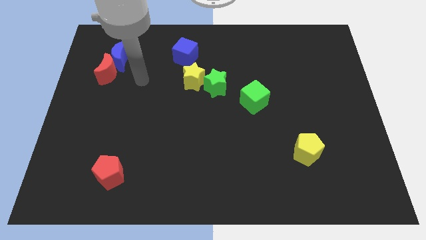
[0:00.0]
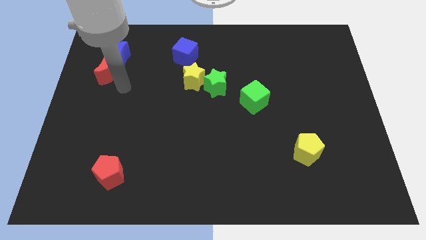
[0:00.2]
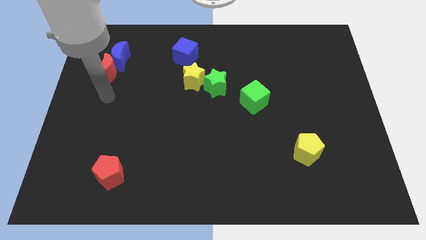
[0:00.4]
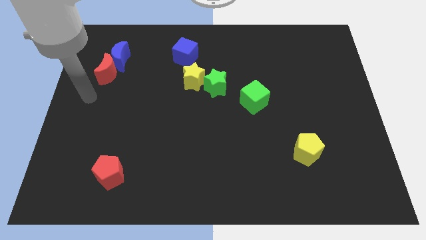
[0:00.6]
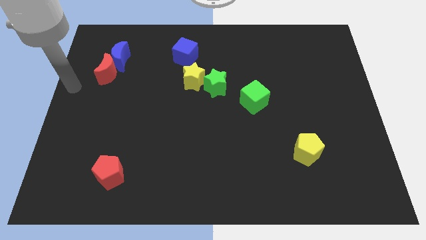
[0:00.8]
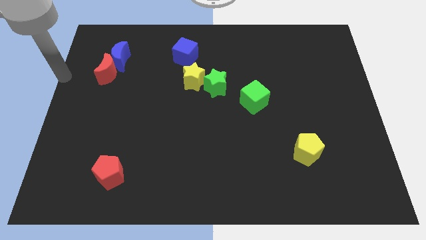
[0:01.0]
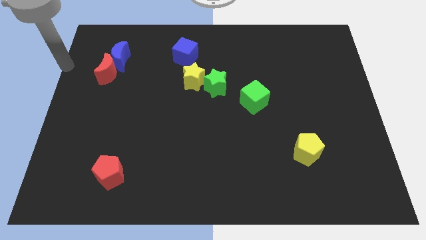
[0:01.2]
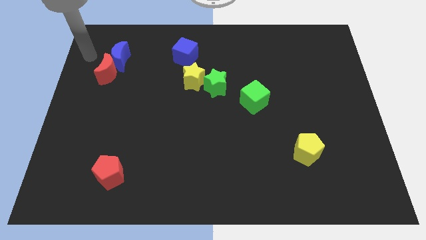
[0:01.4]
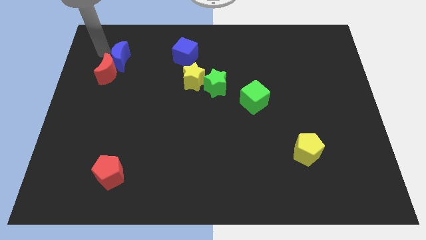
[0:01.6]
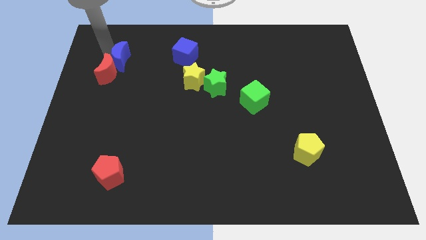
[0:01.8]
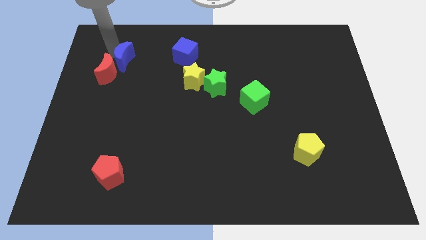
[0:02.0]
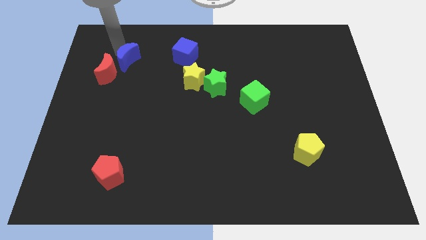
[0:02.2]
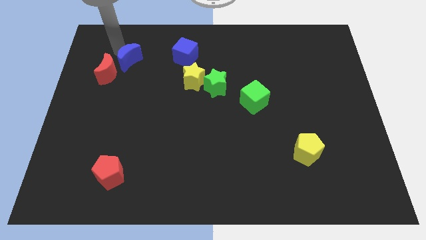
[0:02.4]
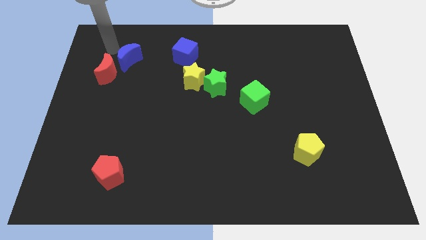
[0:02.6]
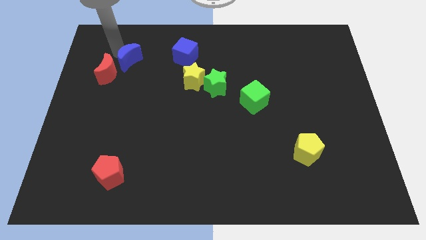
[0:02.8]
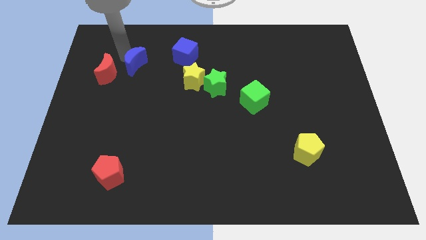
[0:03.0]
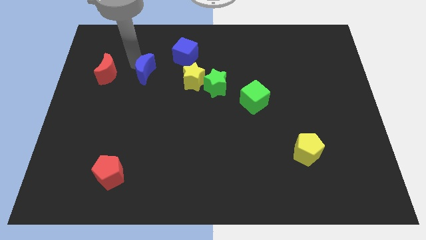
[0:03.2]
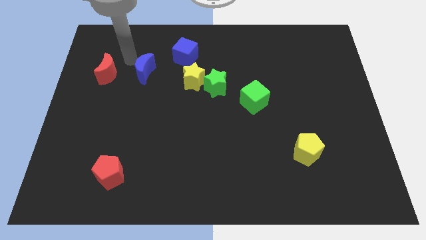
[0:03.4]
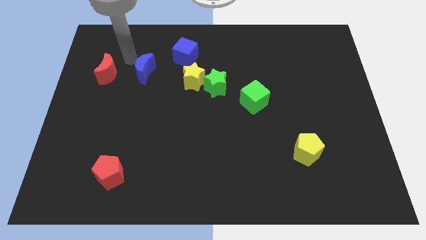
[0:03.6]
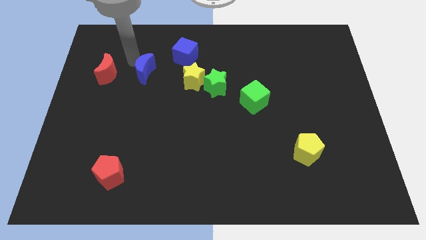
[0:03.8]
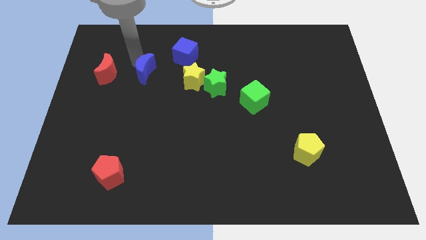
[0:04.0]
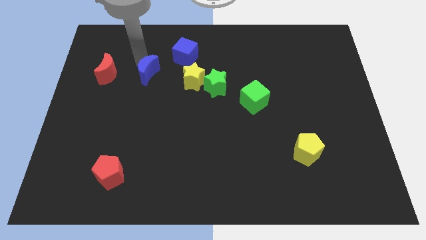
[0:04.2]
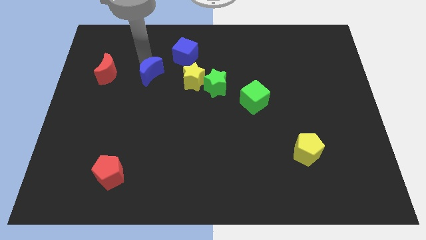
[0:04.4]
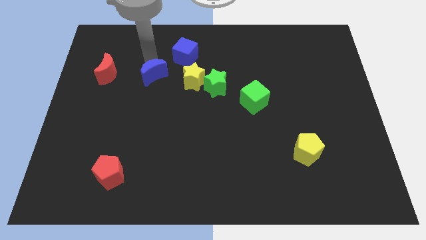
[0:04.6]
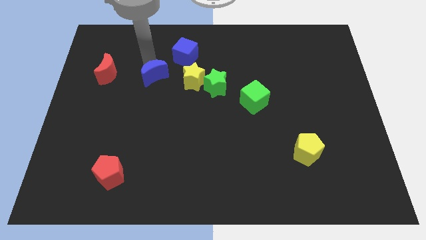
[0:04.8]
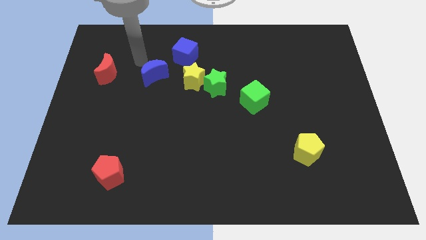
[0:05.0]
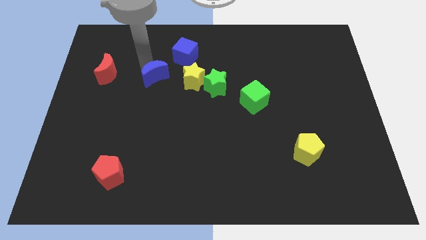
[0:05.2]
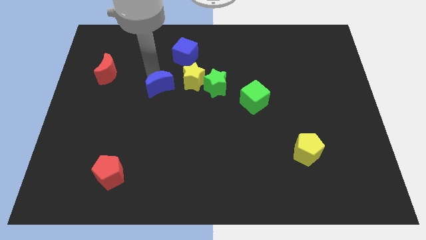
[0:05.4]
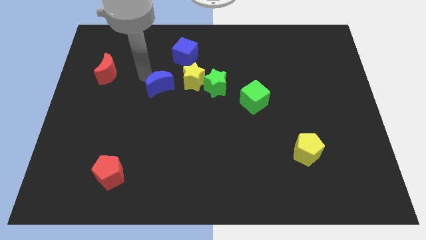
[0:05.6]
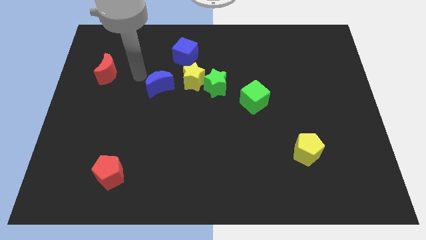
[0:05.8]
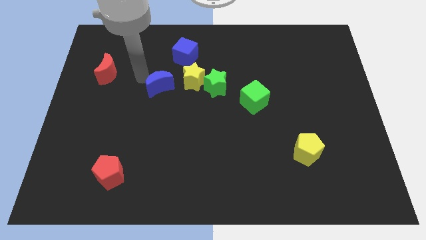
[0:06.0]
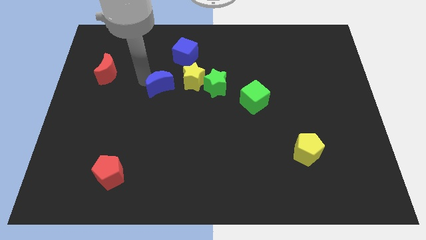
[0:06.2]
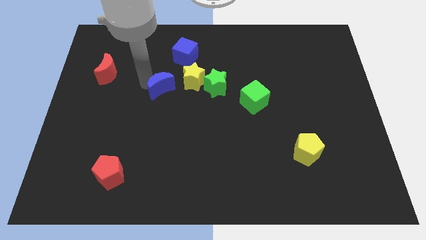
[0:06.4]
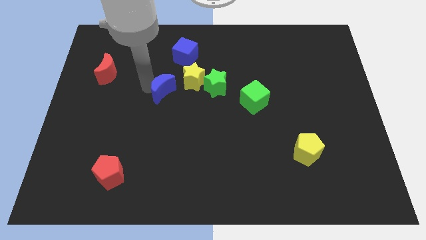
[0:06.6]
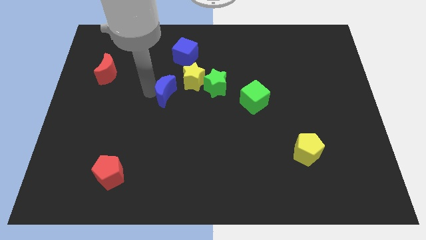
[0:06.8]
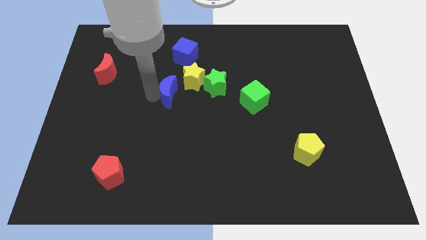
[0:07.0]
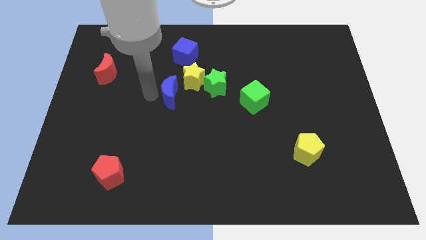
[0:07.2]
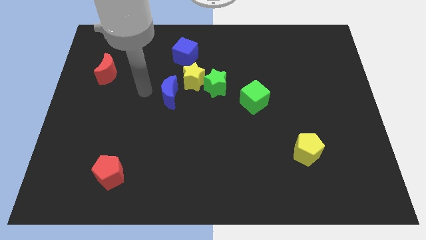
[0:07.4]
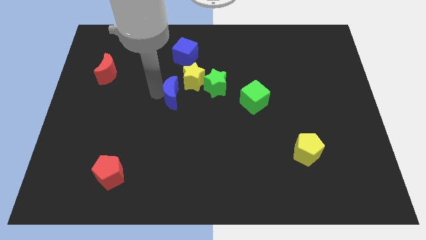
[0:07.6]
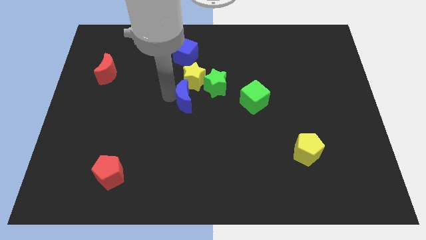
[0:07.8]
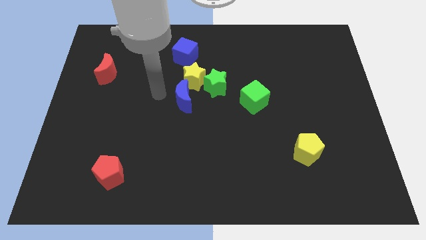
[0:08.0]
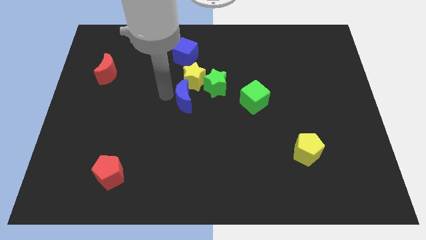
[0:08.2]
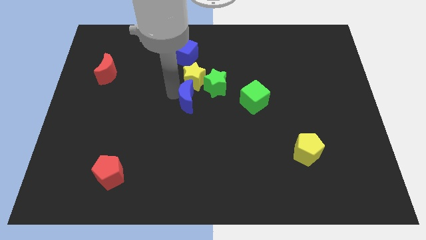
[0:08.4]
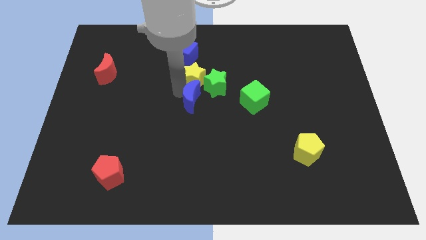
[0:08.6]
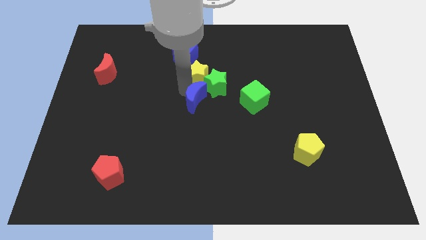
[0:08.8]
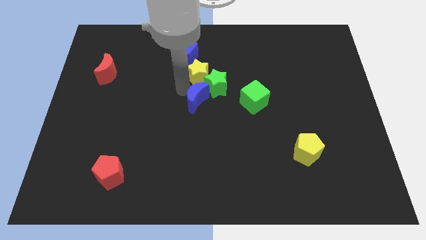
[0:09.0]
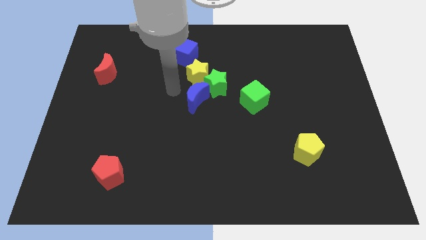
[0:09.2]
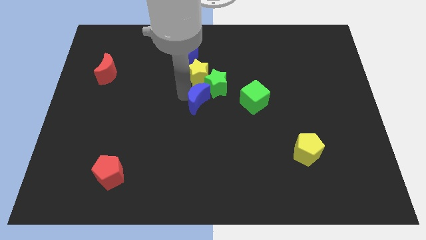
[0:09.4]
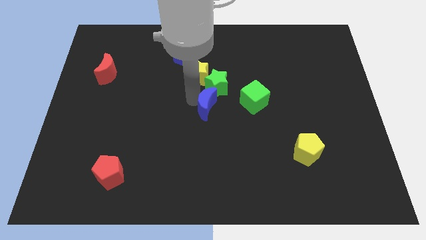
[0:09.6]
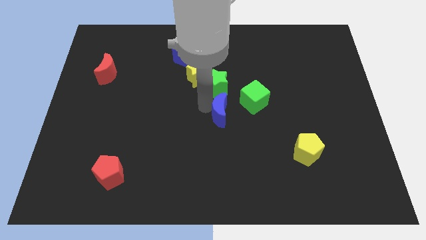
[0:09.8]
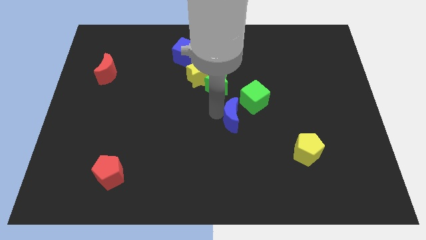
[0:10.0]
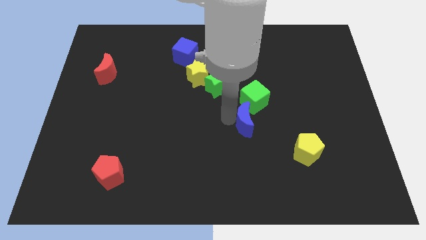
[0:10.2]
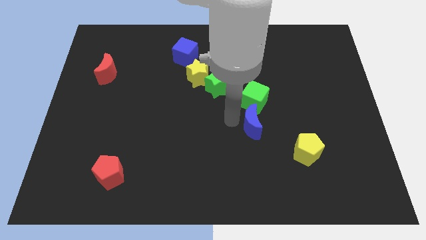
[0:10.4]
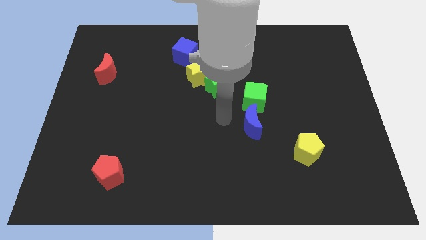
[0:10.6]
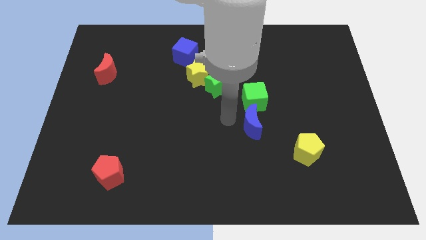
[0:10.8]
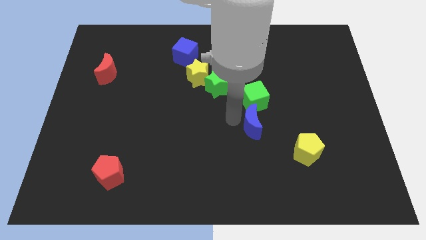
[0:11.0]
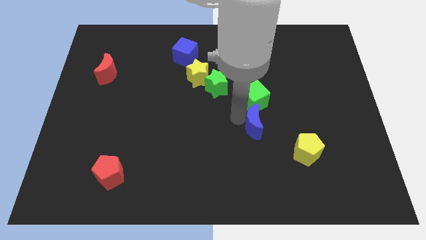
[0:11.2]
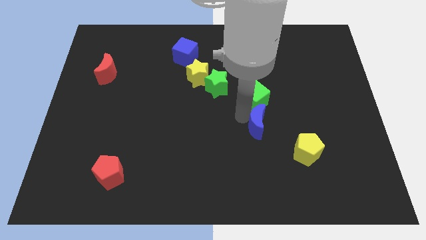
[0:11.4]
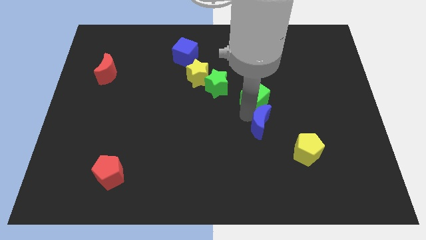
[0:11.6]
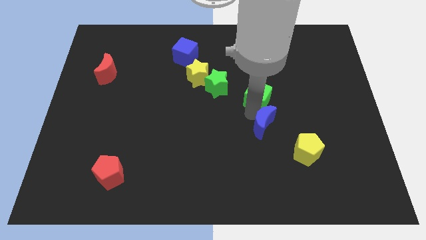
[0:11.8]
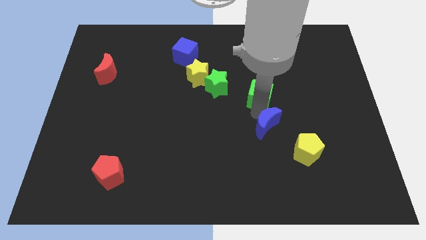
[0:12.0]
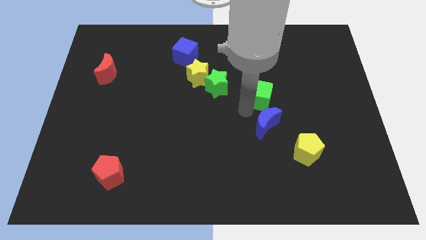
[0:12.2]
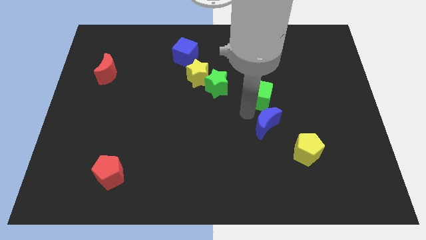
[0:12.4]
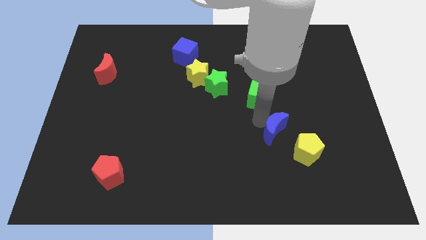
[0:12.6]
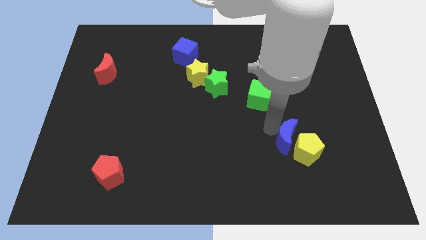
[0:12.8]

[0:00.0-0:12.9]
slide the blue moon to the yellow pentagon

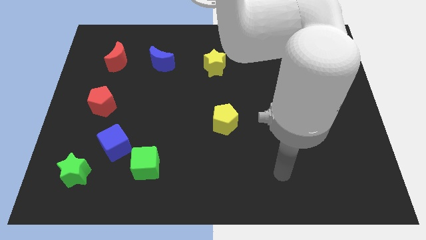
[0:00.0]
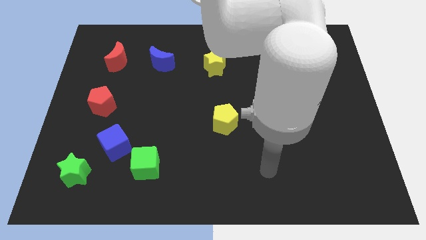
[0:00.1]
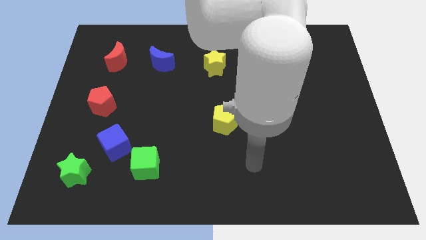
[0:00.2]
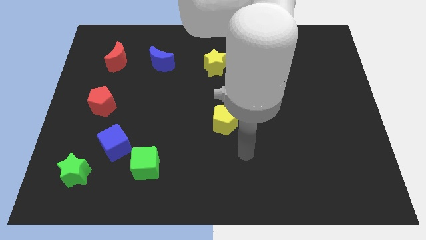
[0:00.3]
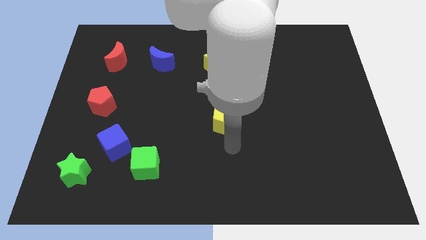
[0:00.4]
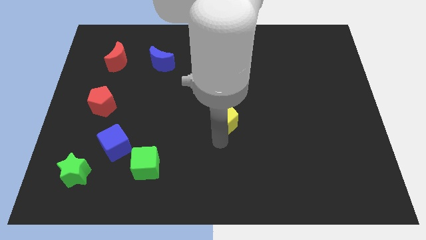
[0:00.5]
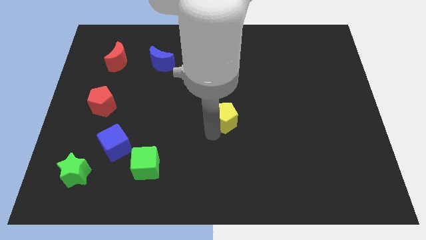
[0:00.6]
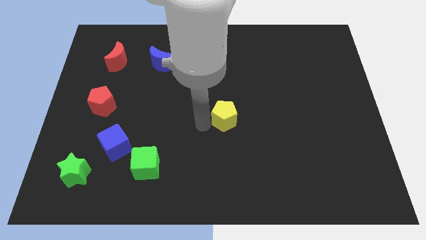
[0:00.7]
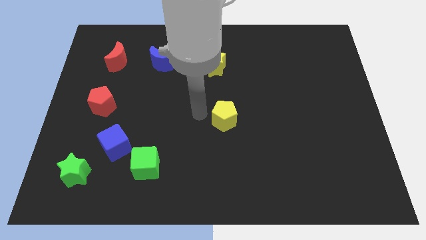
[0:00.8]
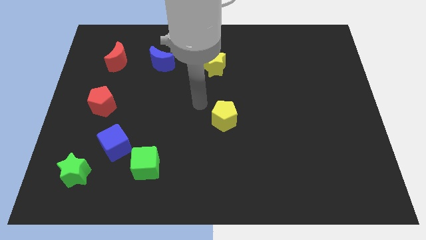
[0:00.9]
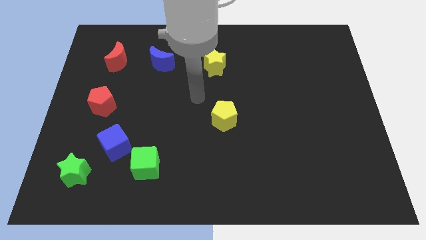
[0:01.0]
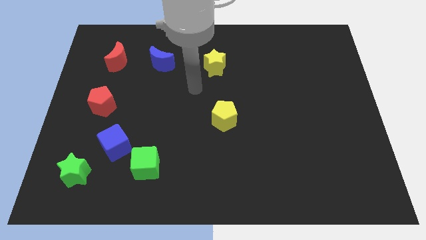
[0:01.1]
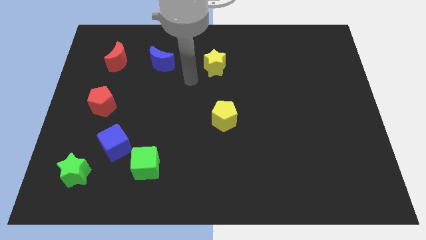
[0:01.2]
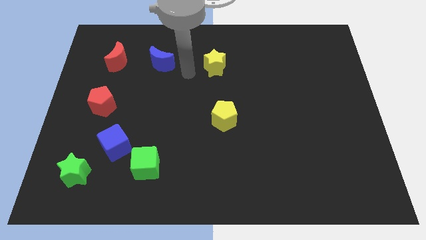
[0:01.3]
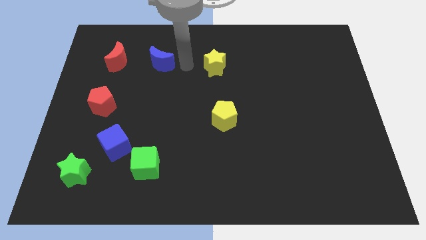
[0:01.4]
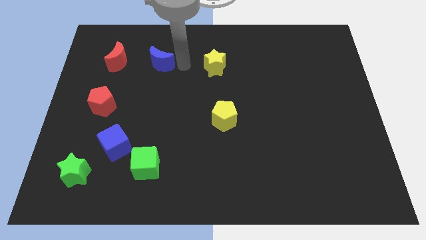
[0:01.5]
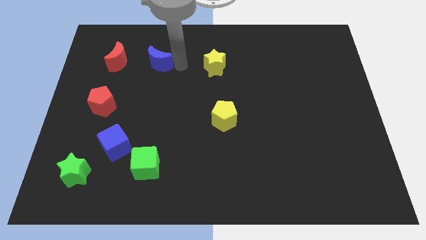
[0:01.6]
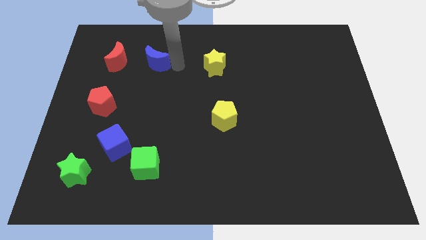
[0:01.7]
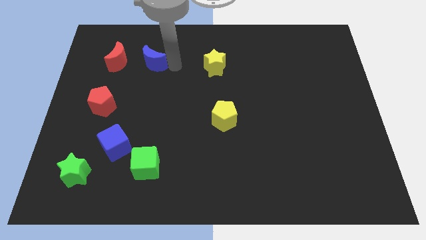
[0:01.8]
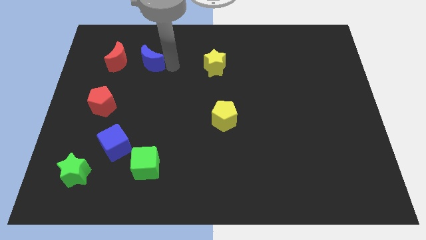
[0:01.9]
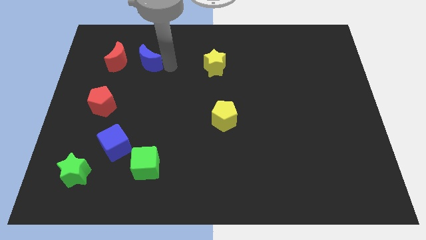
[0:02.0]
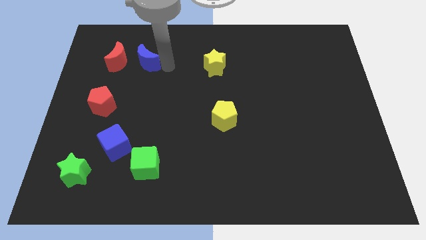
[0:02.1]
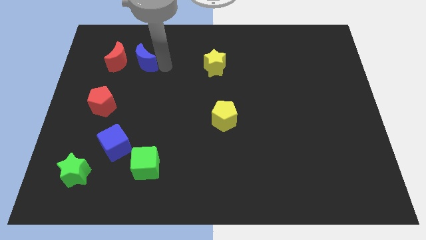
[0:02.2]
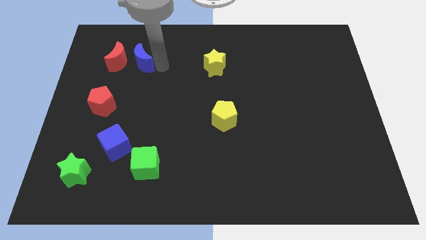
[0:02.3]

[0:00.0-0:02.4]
slide the blue moon close to the red moon
